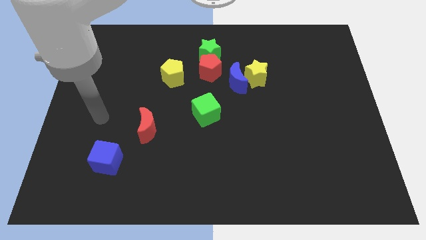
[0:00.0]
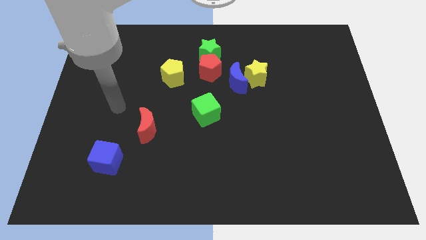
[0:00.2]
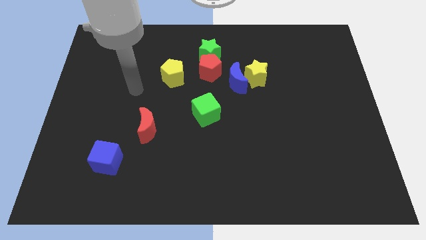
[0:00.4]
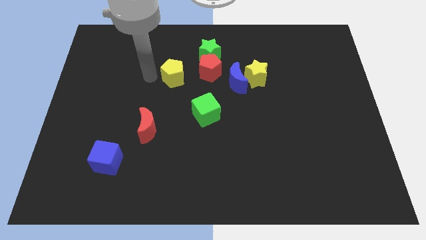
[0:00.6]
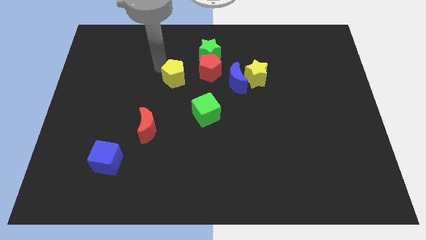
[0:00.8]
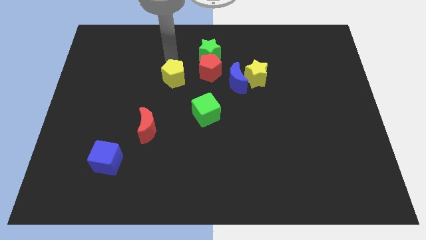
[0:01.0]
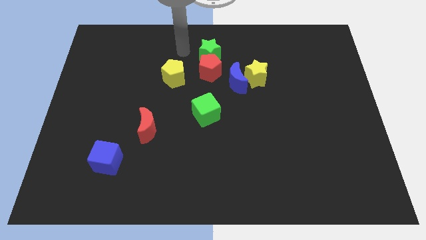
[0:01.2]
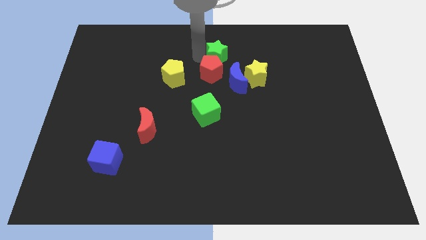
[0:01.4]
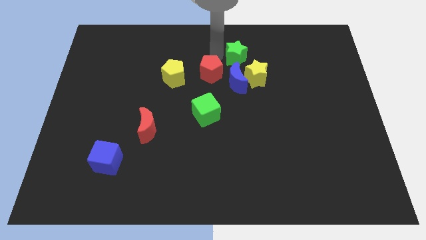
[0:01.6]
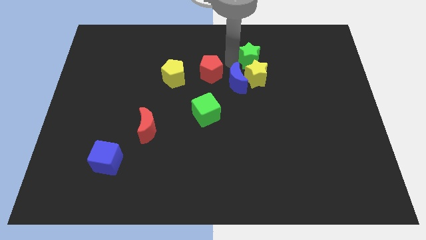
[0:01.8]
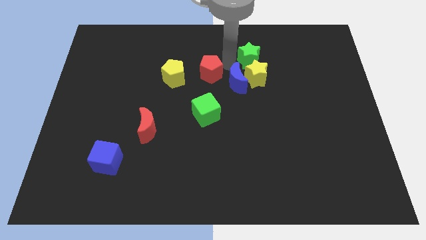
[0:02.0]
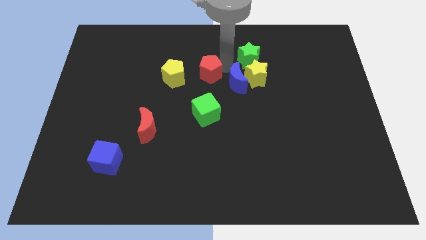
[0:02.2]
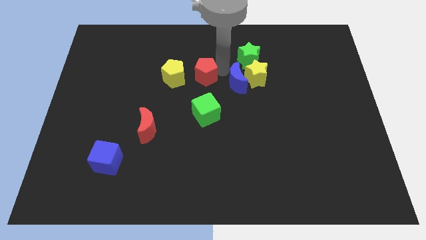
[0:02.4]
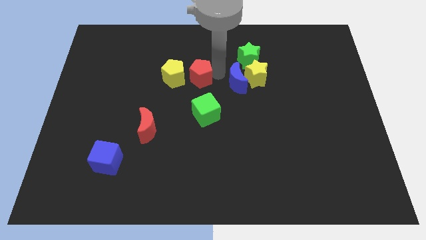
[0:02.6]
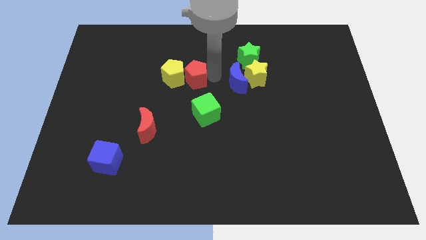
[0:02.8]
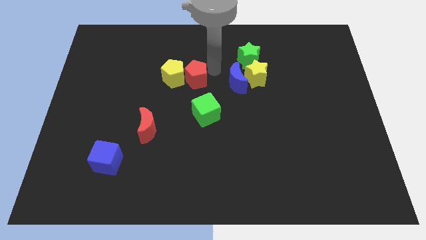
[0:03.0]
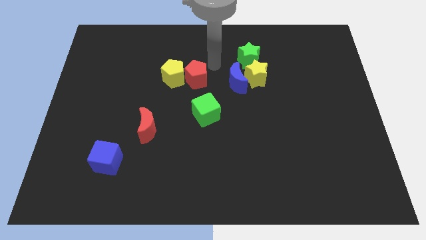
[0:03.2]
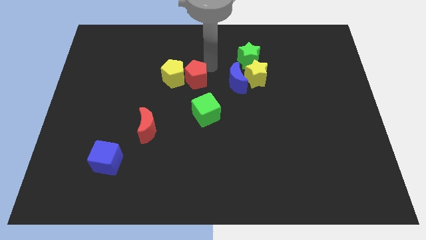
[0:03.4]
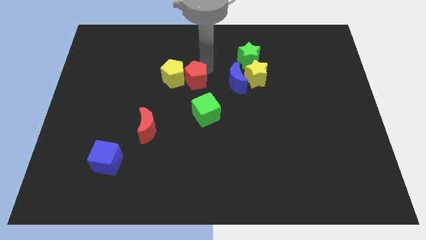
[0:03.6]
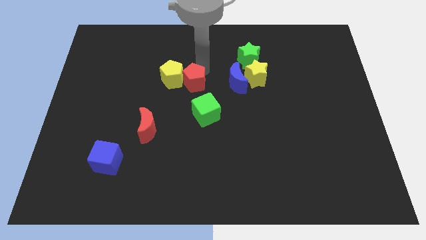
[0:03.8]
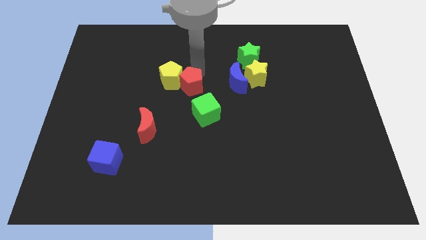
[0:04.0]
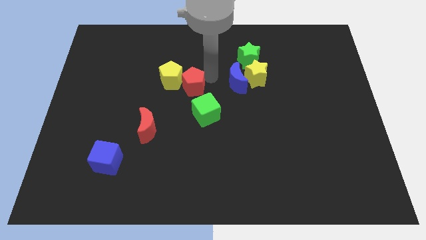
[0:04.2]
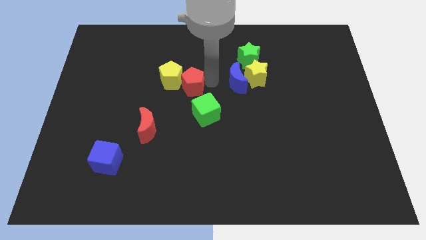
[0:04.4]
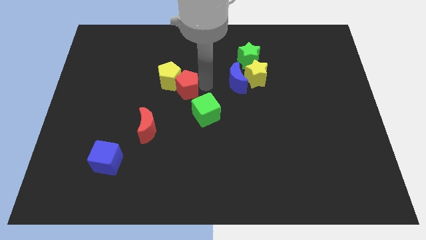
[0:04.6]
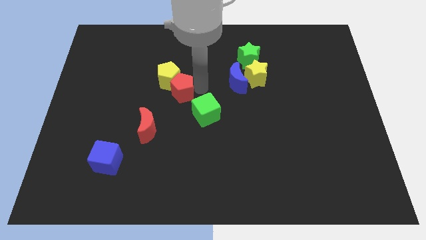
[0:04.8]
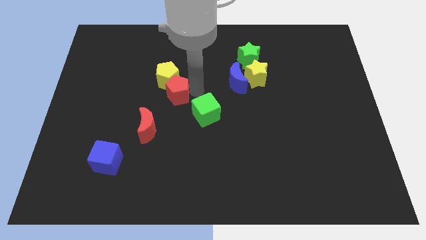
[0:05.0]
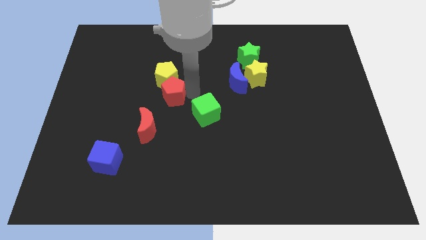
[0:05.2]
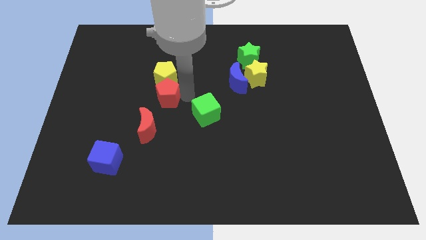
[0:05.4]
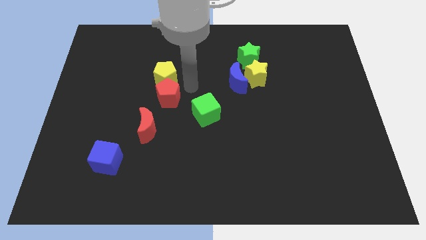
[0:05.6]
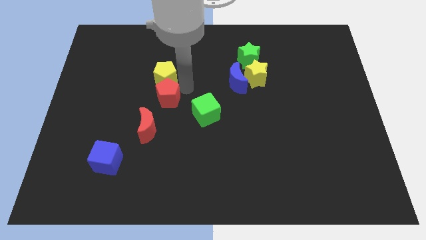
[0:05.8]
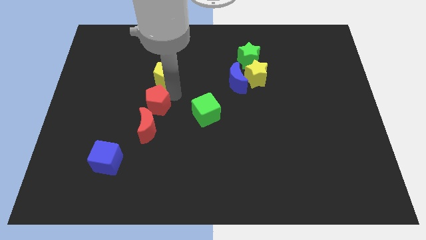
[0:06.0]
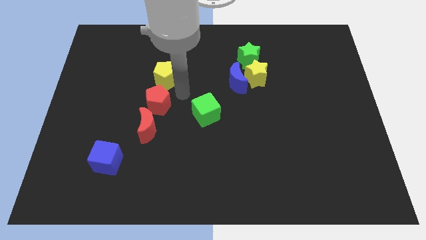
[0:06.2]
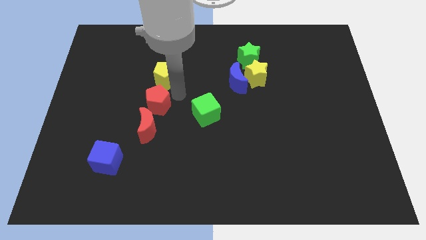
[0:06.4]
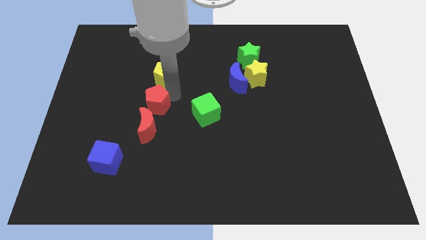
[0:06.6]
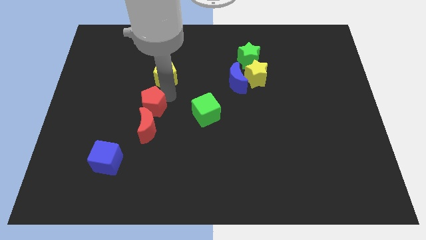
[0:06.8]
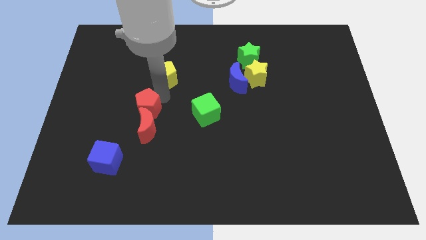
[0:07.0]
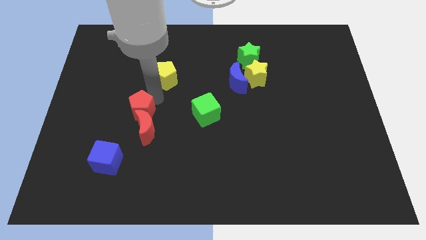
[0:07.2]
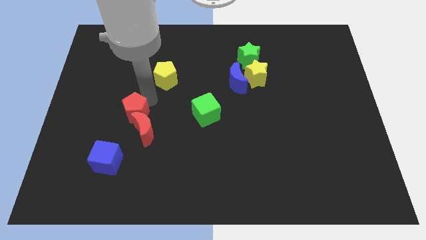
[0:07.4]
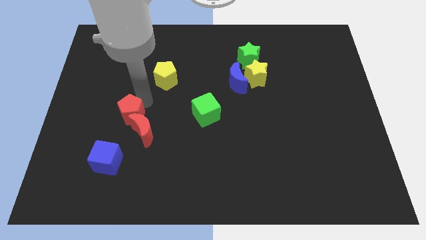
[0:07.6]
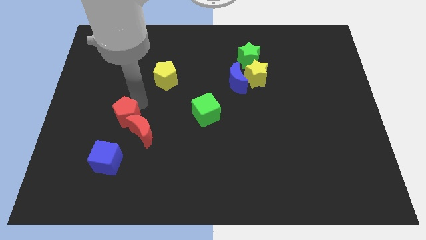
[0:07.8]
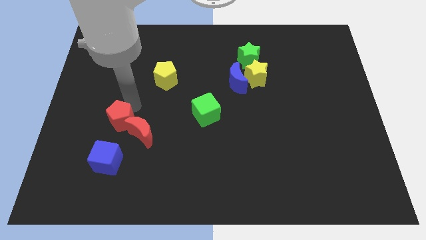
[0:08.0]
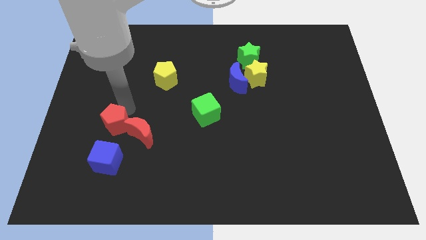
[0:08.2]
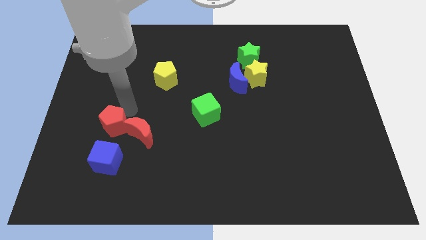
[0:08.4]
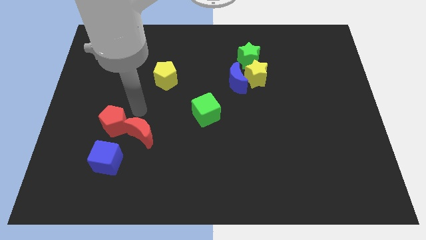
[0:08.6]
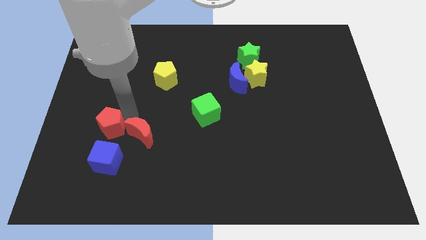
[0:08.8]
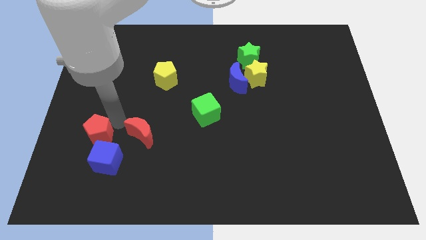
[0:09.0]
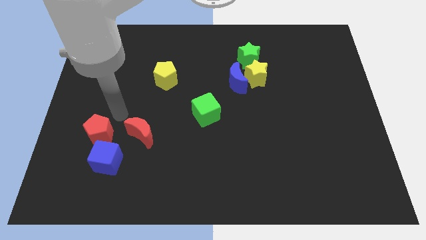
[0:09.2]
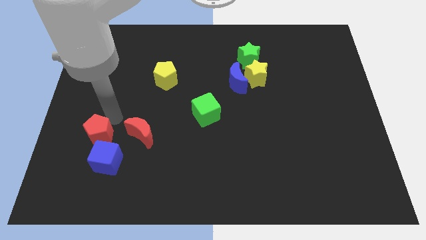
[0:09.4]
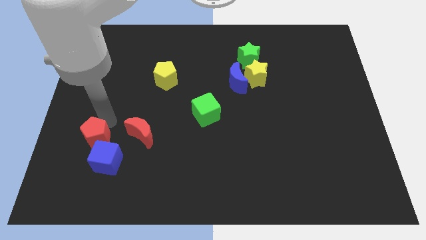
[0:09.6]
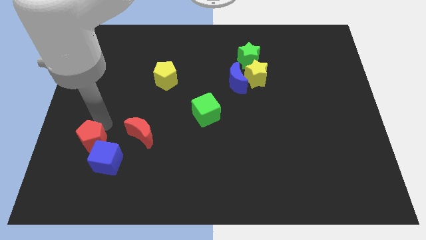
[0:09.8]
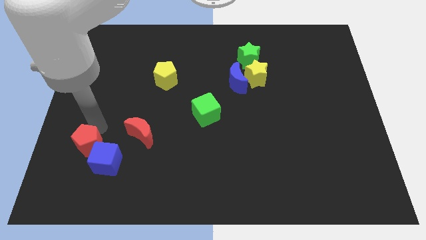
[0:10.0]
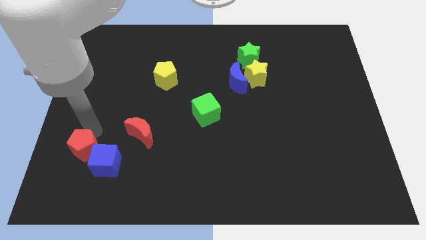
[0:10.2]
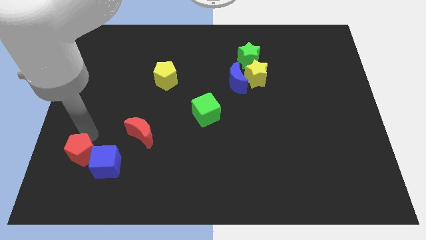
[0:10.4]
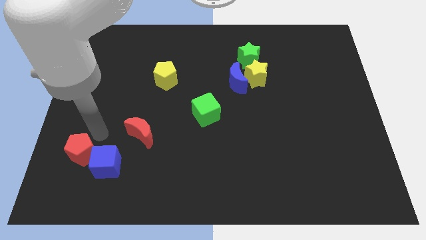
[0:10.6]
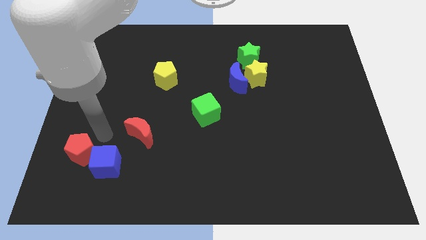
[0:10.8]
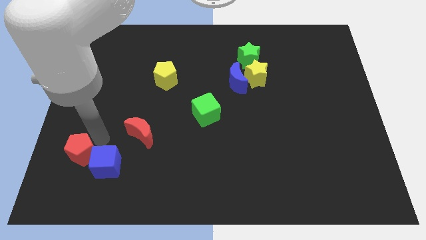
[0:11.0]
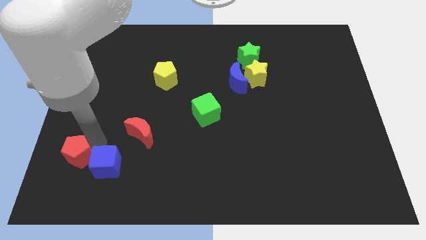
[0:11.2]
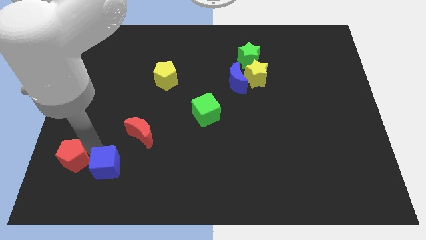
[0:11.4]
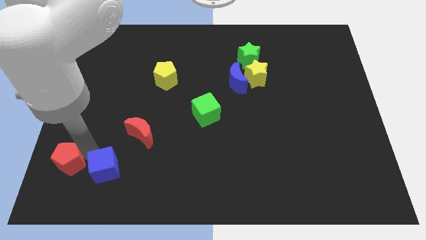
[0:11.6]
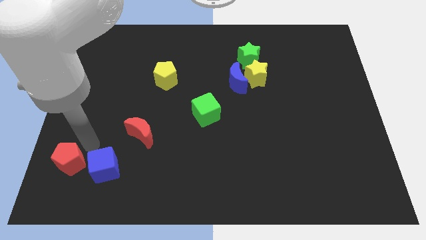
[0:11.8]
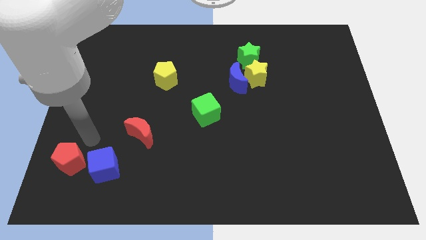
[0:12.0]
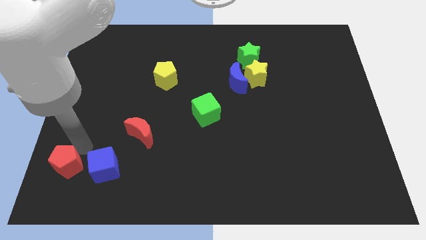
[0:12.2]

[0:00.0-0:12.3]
put the red pentagon to the bottom left
